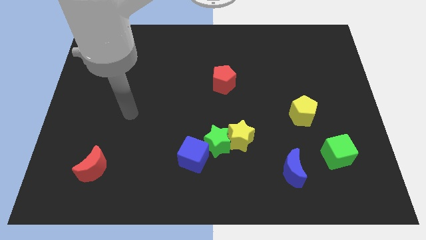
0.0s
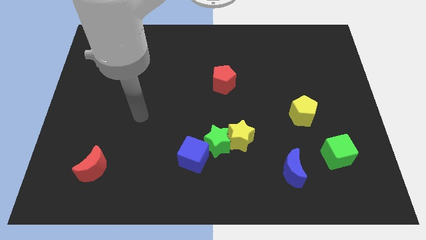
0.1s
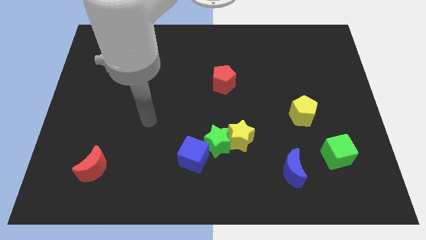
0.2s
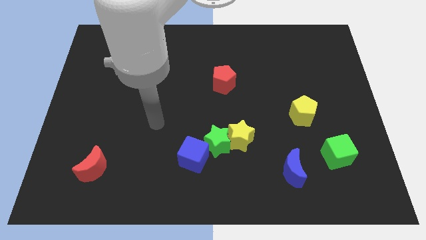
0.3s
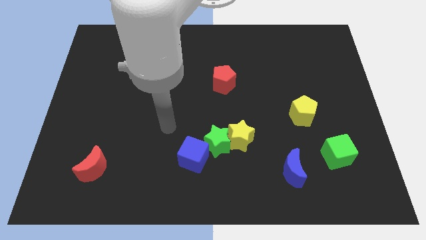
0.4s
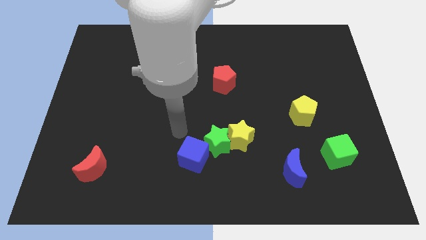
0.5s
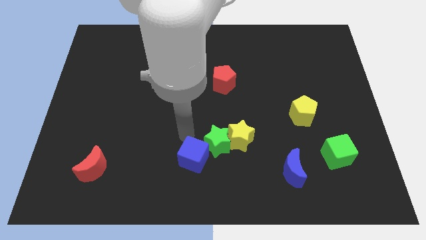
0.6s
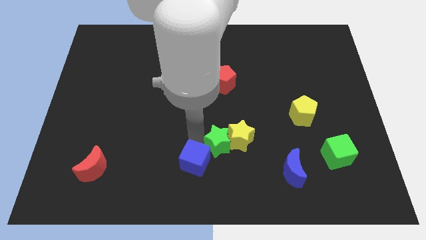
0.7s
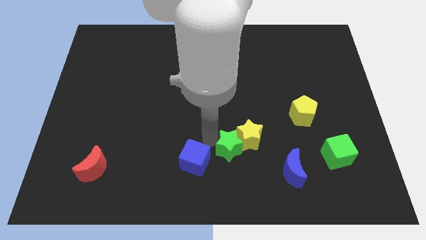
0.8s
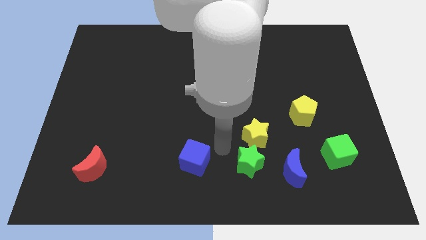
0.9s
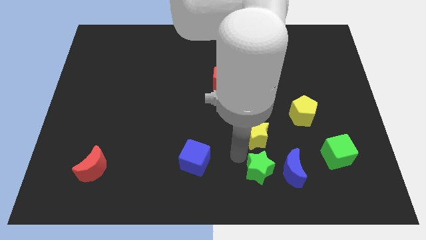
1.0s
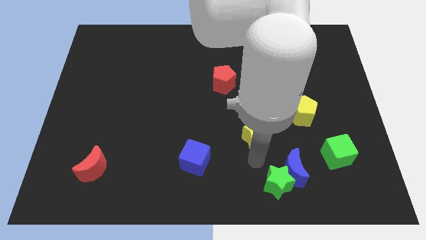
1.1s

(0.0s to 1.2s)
pull the yellow star apart from the green star

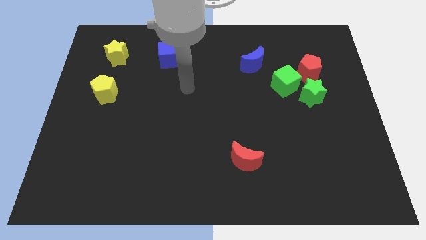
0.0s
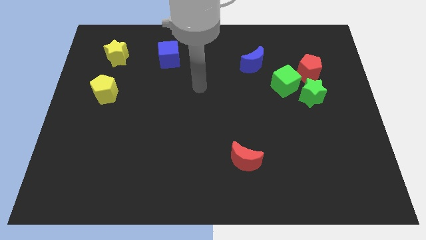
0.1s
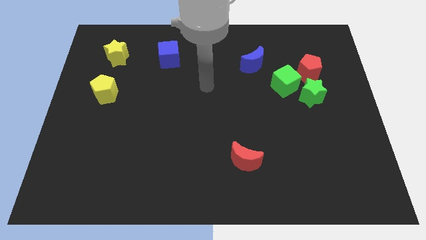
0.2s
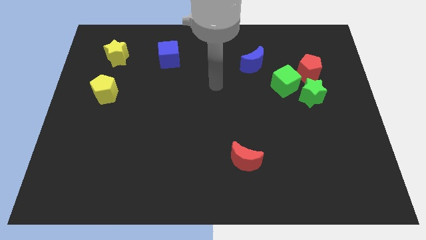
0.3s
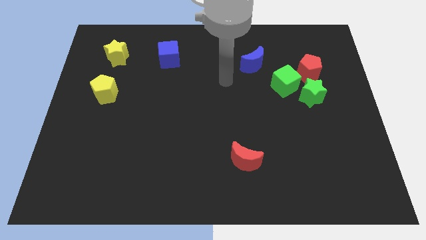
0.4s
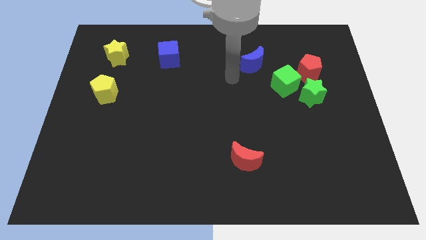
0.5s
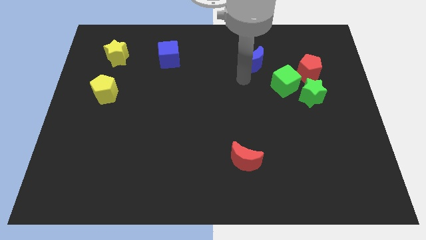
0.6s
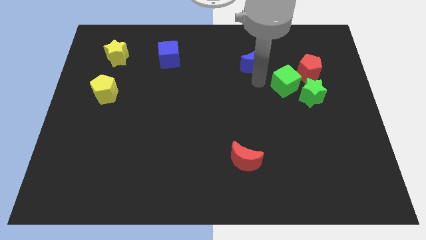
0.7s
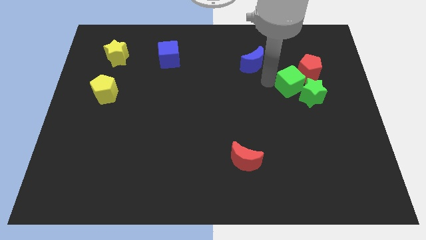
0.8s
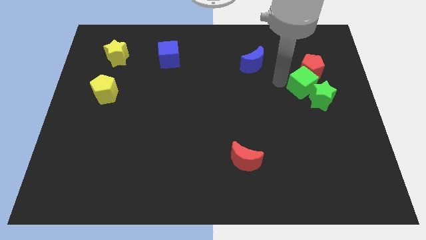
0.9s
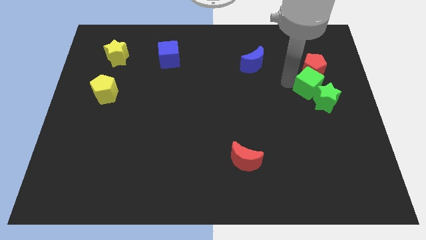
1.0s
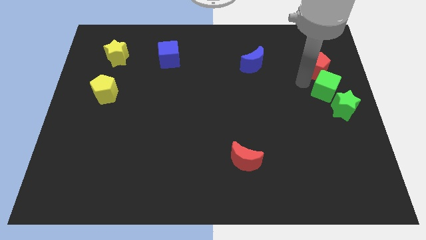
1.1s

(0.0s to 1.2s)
move the green star away from the green cube and red pentagon

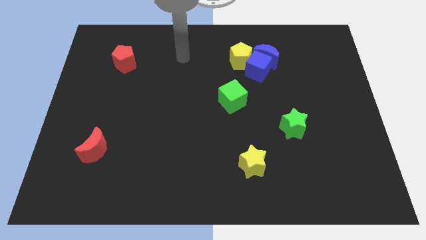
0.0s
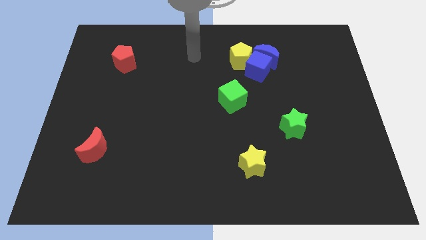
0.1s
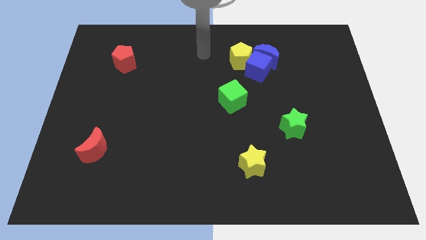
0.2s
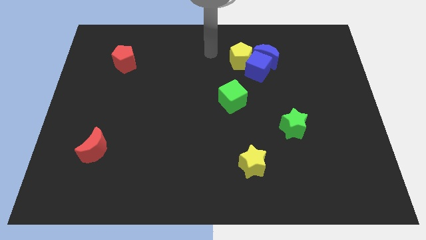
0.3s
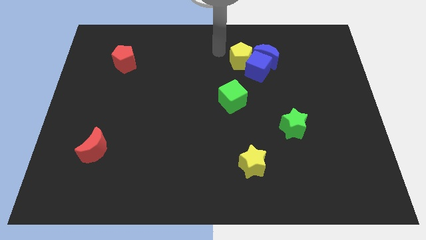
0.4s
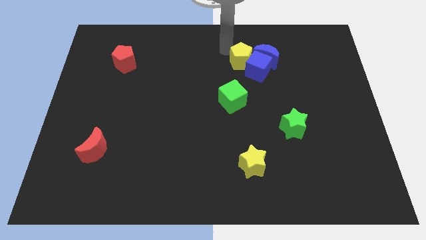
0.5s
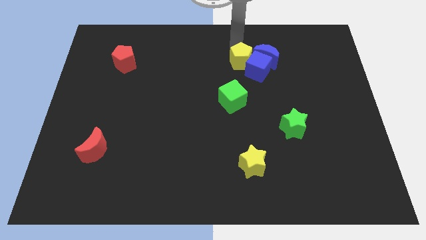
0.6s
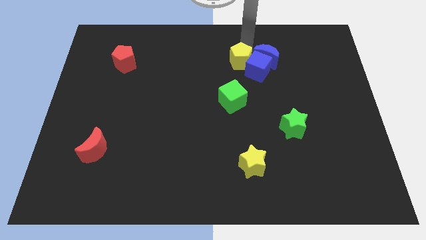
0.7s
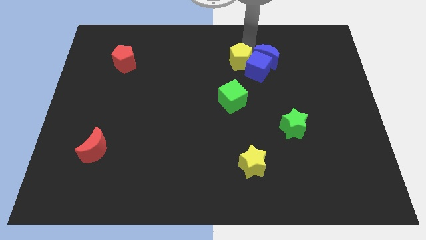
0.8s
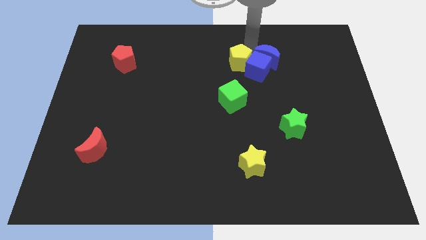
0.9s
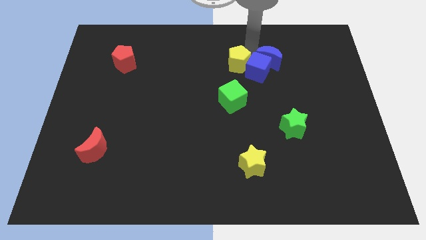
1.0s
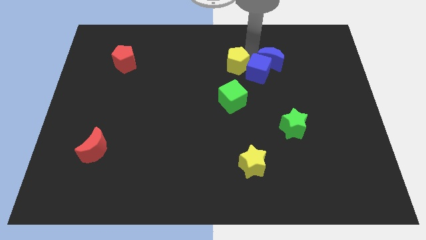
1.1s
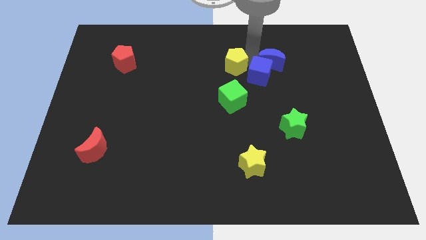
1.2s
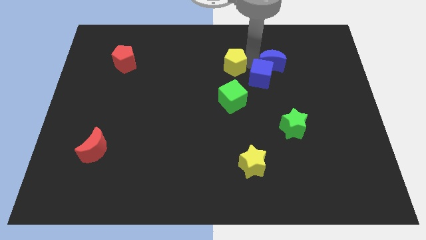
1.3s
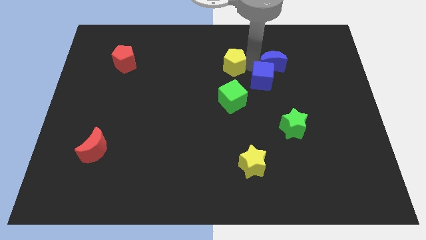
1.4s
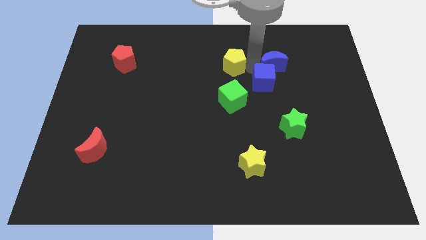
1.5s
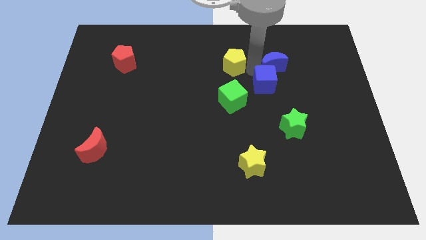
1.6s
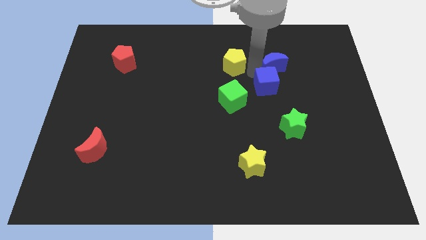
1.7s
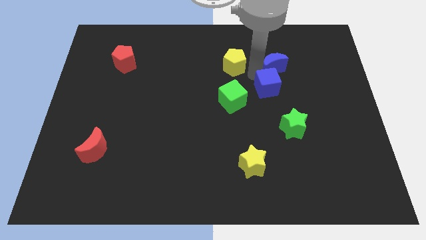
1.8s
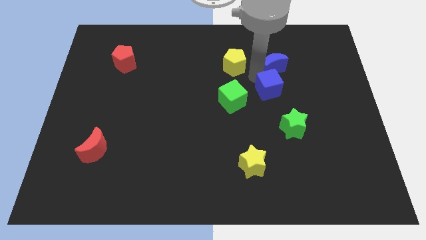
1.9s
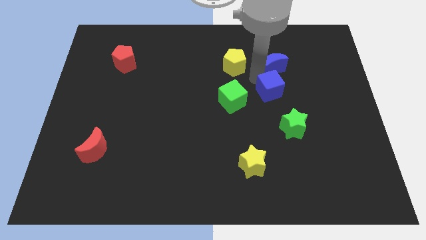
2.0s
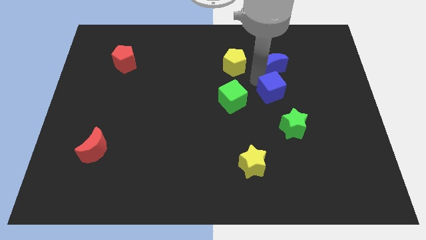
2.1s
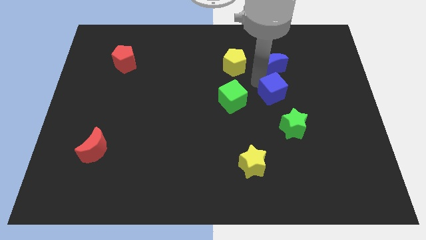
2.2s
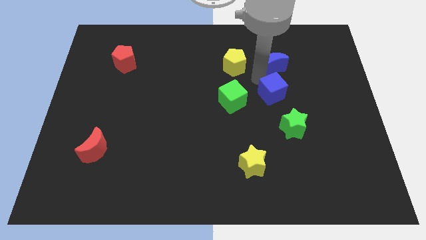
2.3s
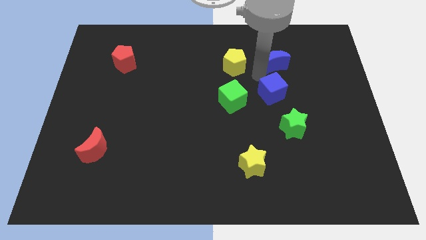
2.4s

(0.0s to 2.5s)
move the blue cube away from the blue moon and yellow pentagon

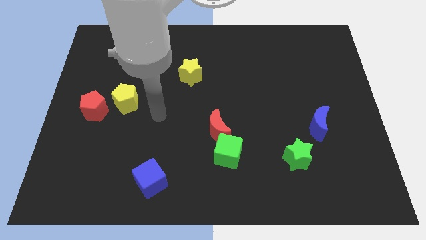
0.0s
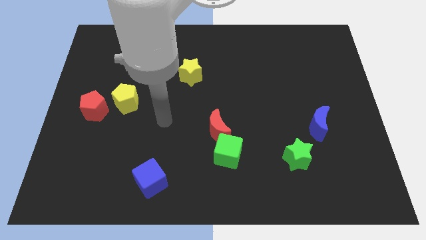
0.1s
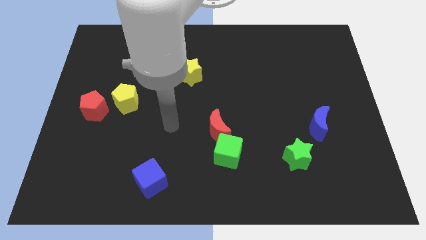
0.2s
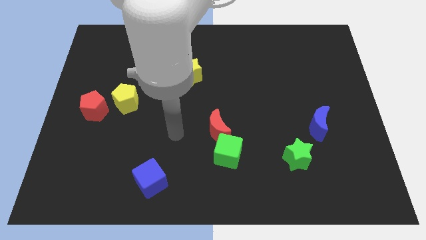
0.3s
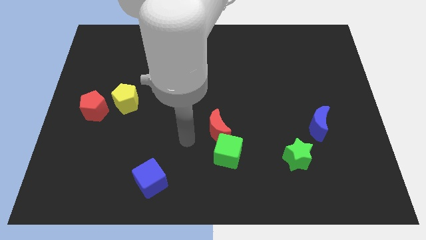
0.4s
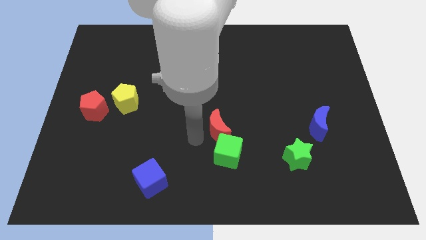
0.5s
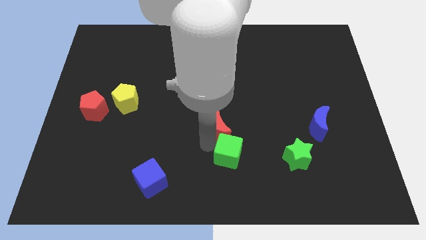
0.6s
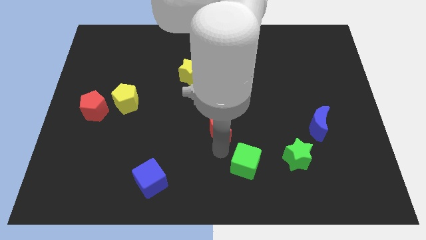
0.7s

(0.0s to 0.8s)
pull the red moon apart from the green cube

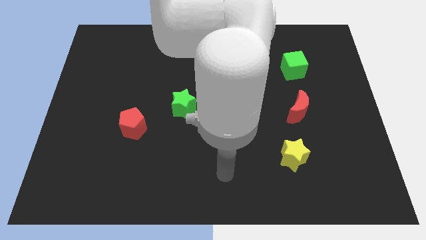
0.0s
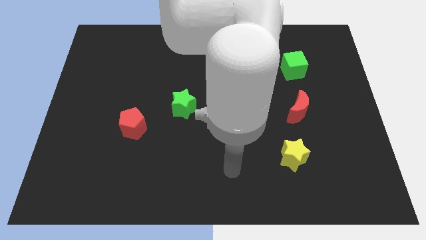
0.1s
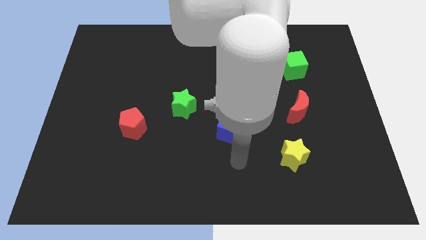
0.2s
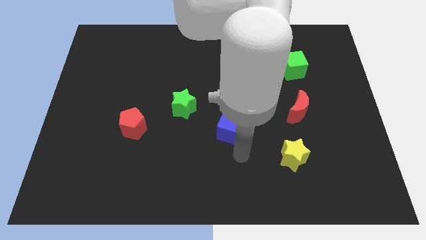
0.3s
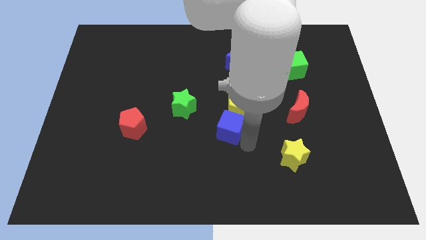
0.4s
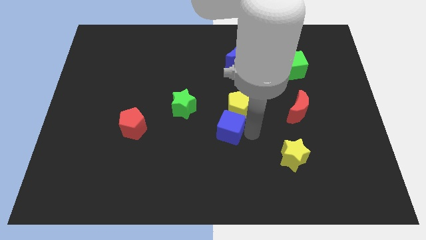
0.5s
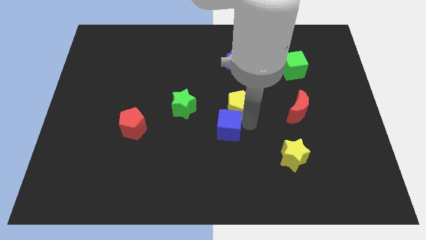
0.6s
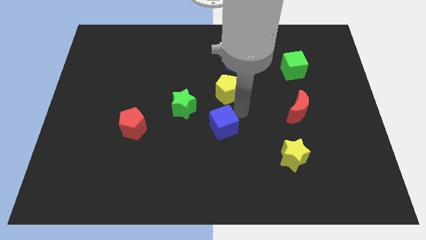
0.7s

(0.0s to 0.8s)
move the blue cube away from the yellow pentagon

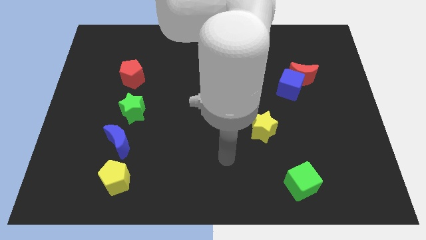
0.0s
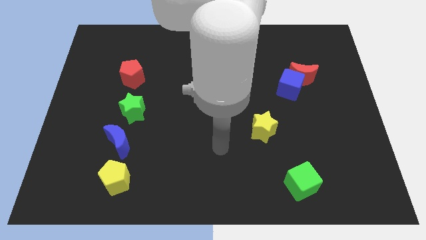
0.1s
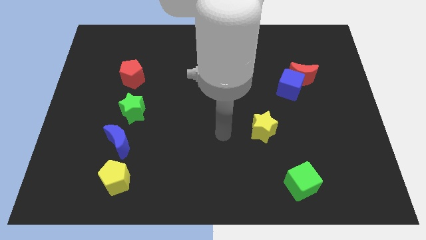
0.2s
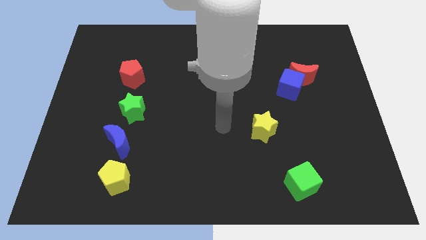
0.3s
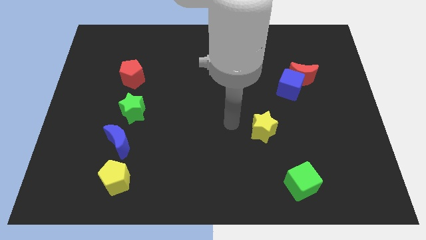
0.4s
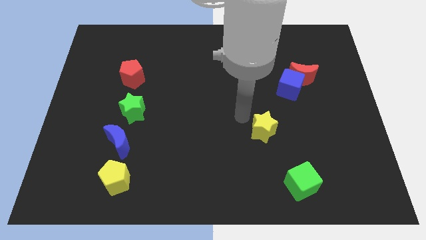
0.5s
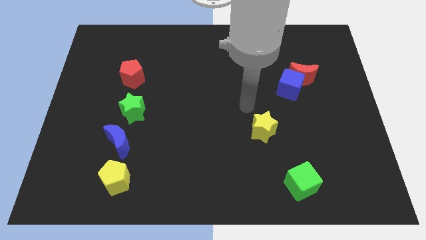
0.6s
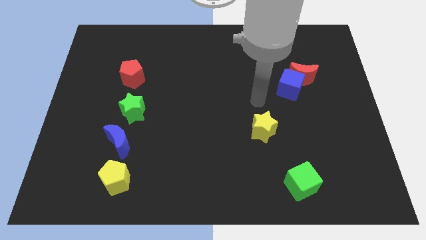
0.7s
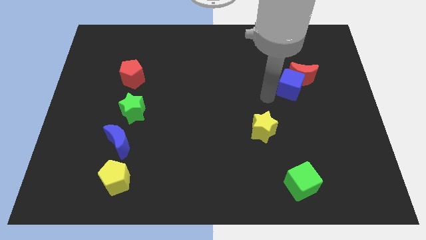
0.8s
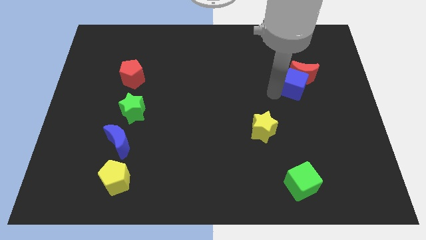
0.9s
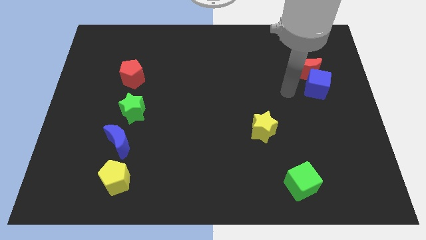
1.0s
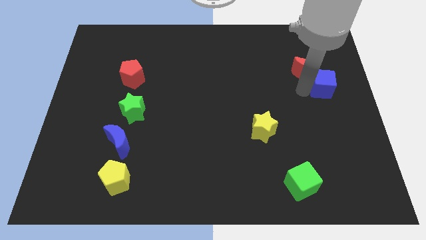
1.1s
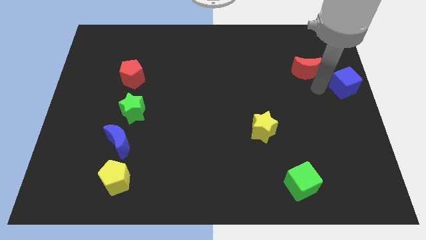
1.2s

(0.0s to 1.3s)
move the red moon away from the blue cube

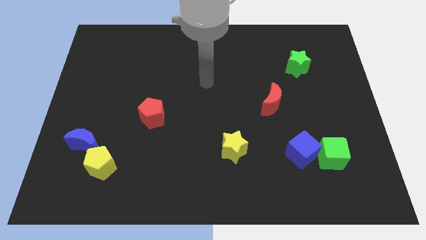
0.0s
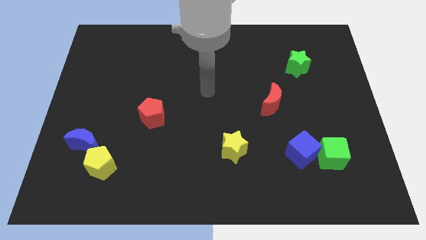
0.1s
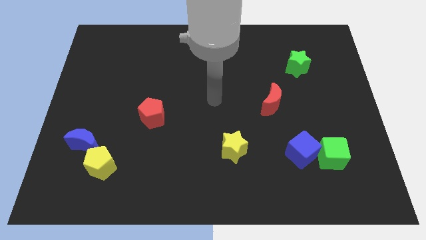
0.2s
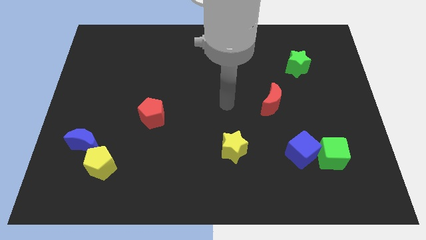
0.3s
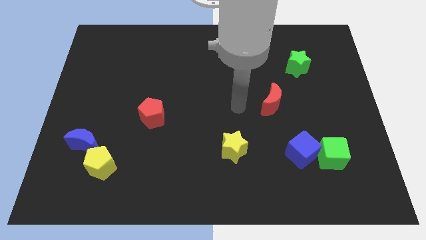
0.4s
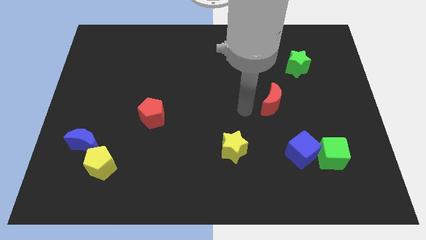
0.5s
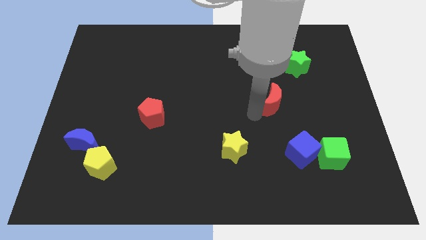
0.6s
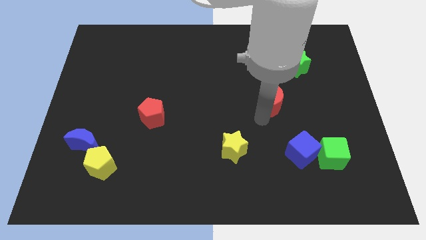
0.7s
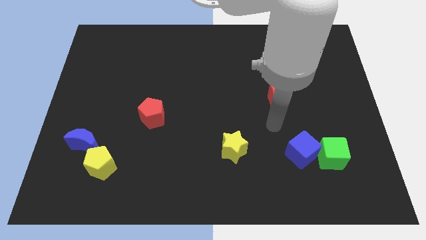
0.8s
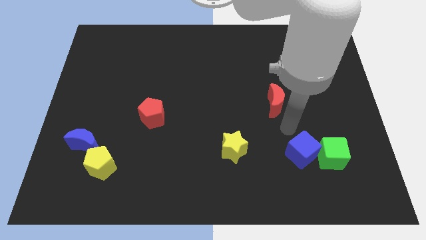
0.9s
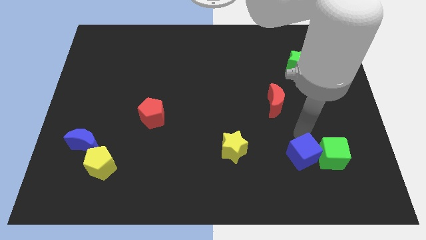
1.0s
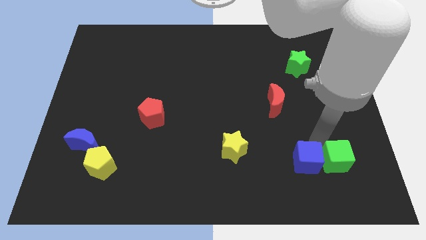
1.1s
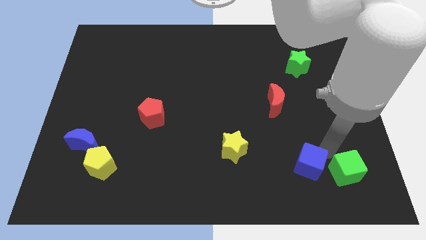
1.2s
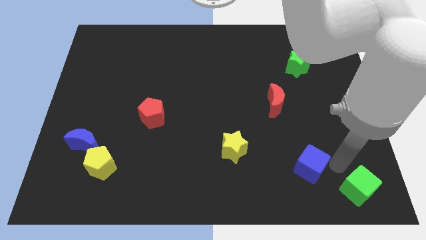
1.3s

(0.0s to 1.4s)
pull the blue cube apart from the green cube

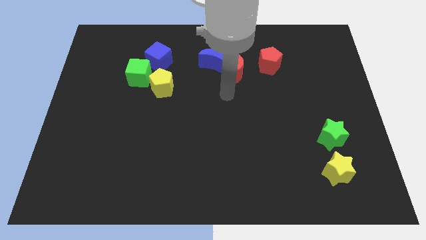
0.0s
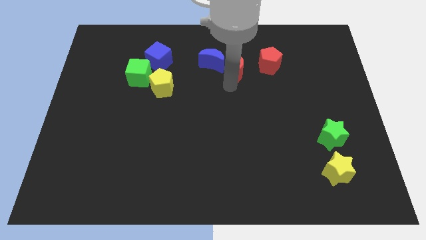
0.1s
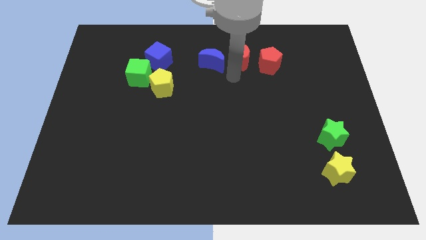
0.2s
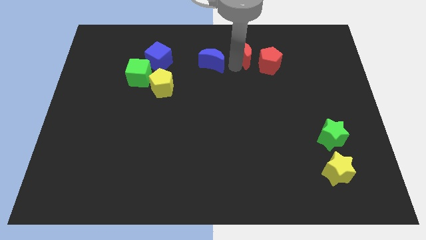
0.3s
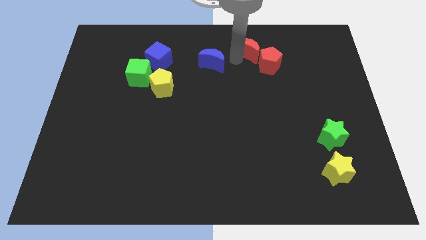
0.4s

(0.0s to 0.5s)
move the blue moon away from the red moon
